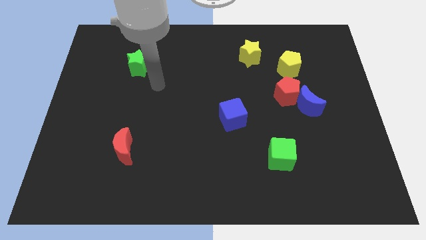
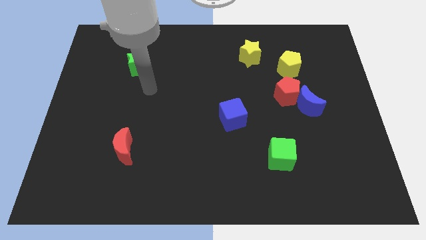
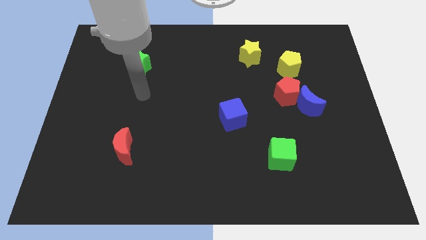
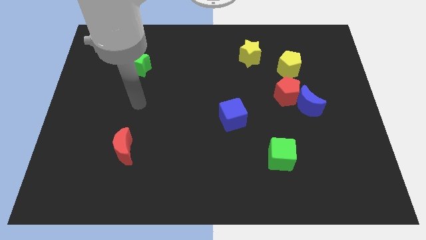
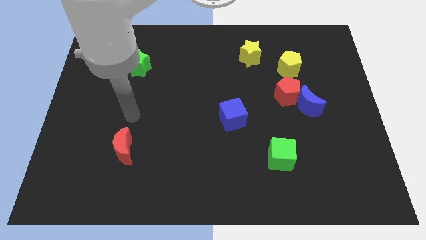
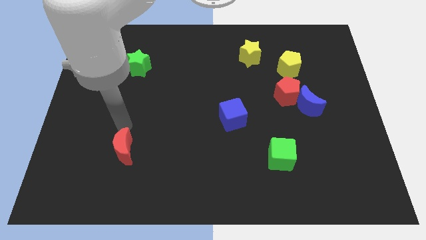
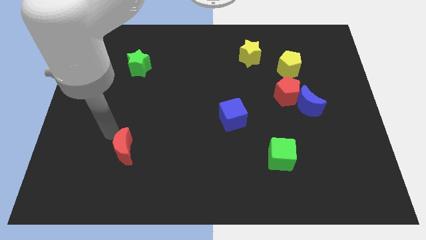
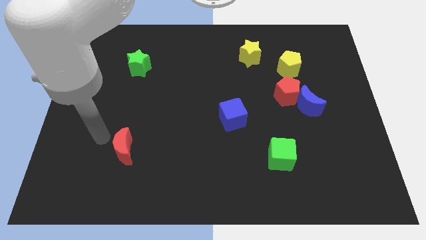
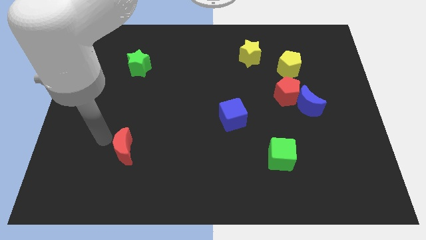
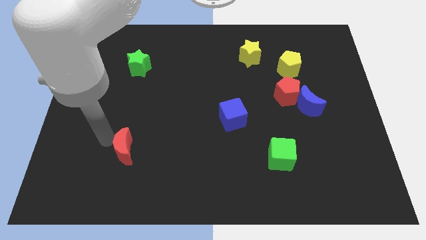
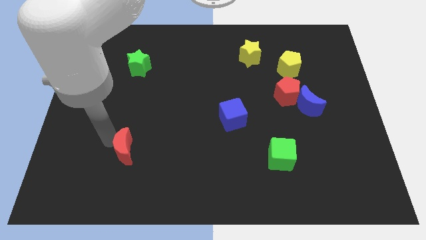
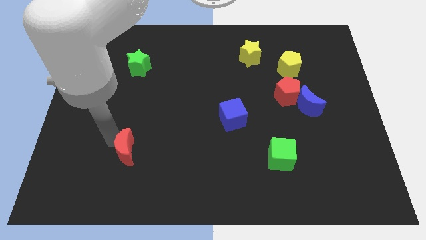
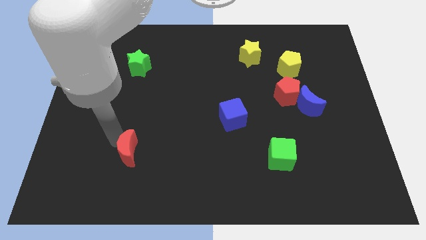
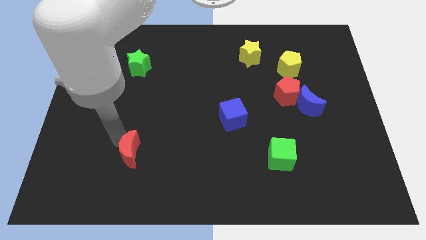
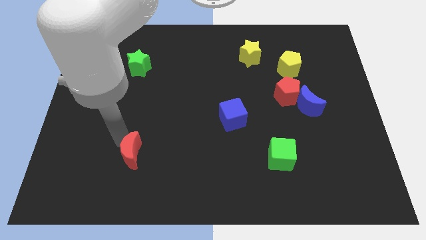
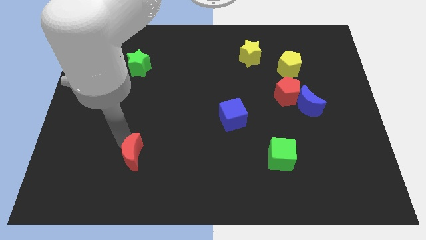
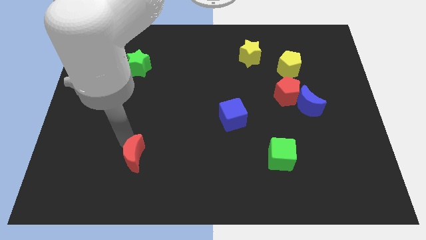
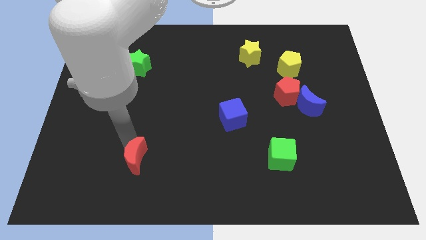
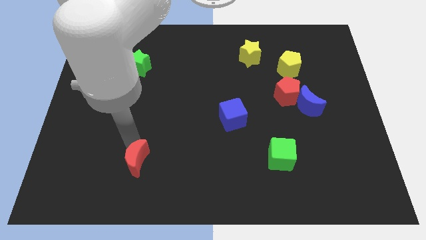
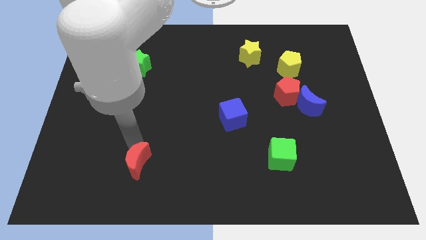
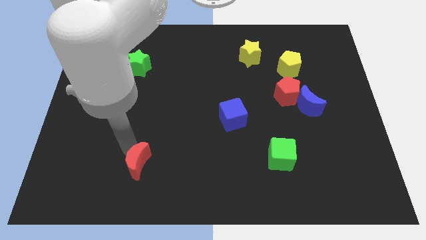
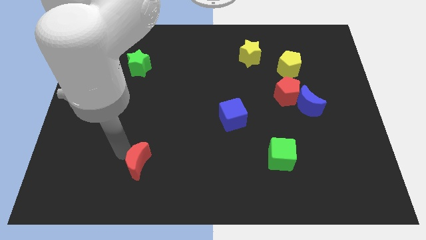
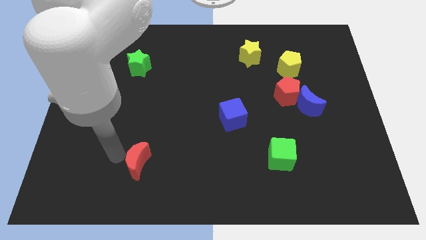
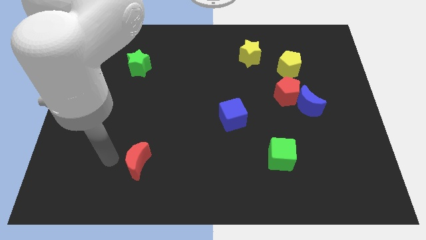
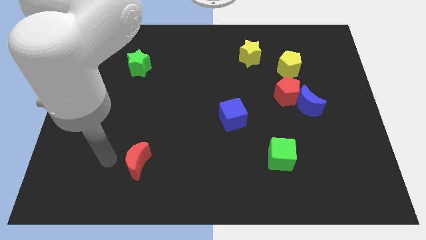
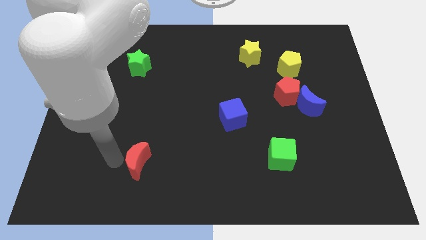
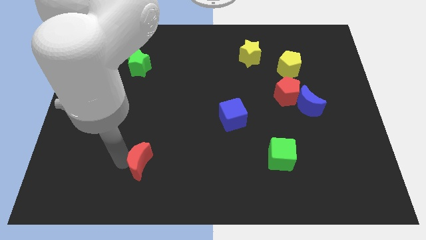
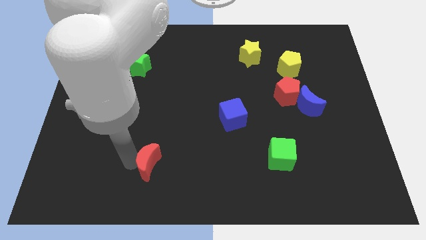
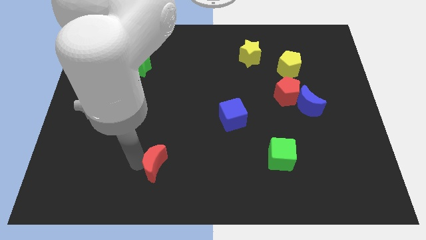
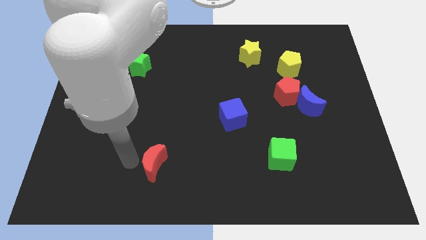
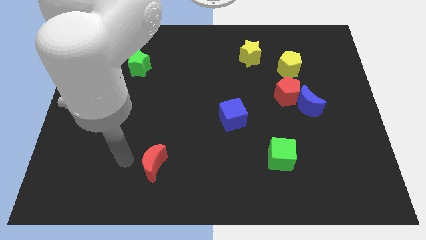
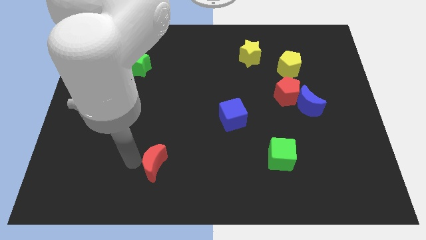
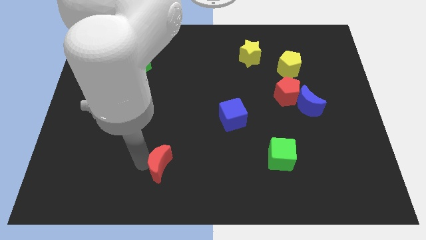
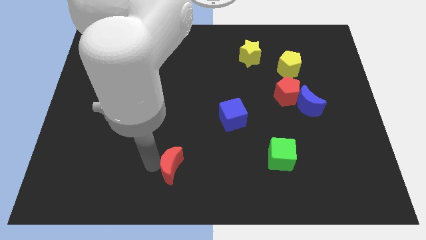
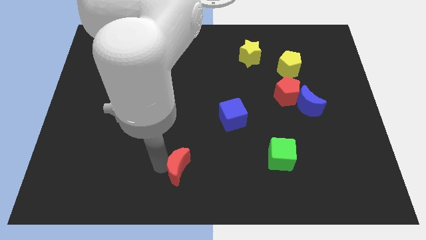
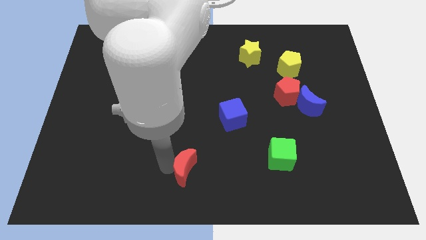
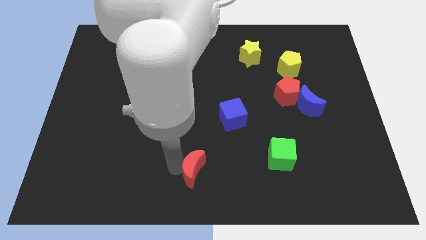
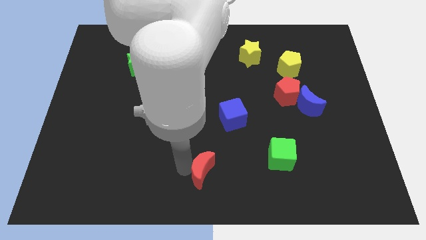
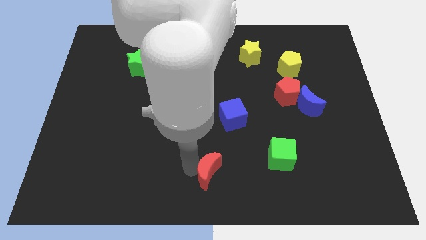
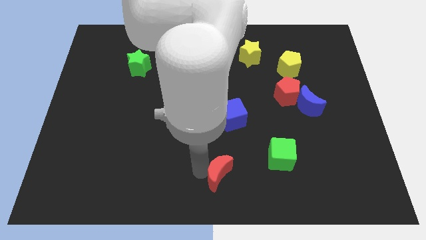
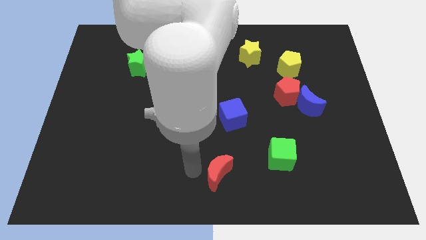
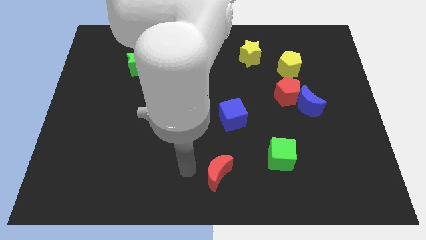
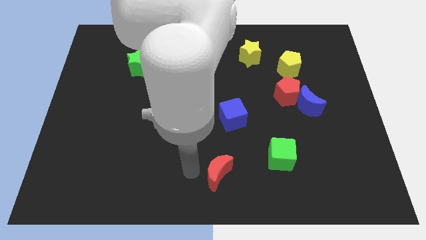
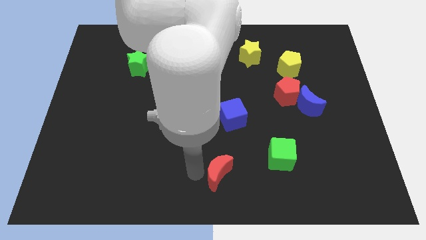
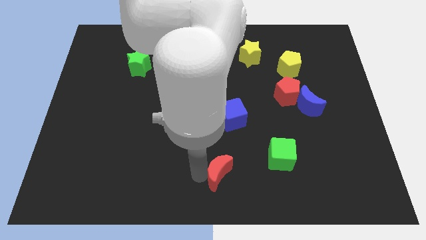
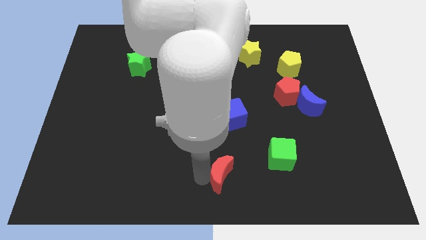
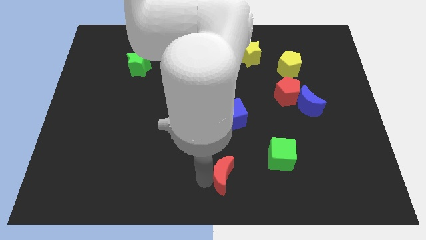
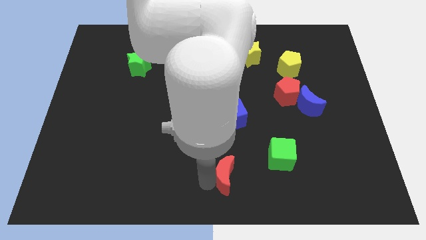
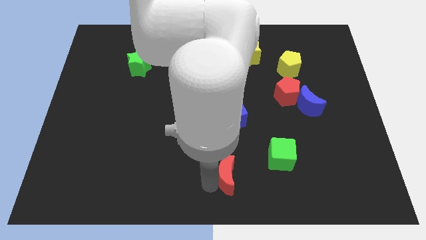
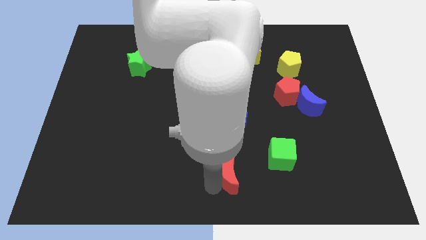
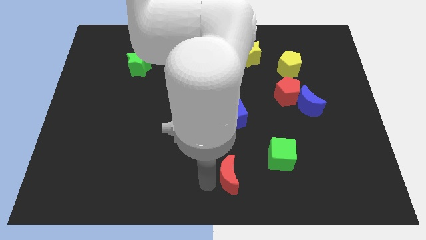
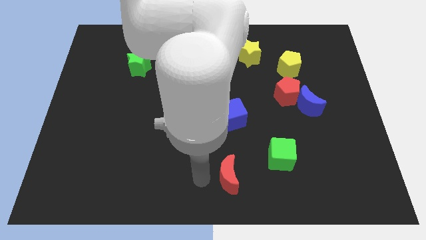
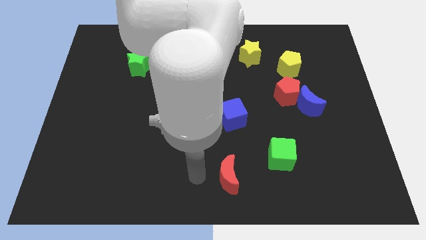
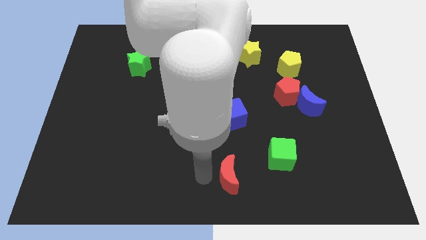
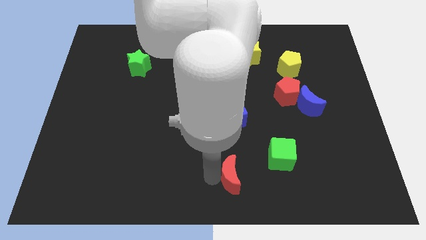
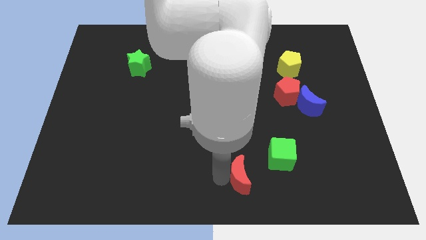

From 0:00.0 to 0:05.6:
put the red moon to the bottom left of the green cube

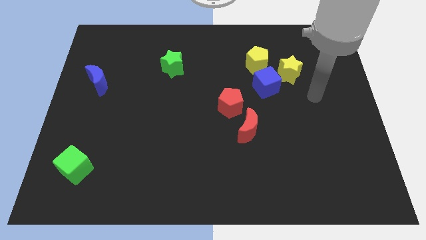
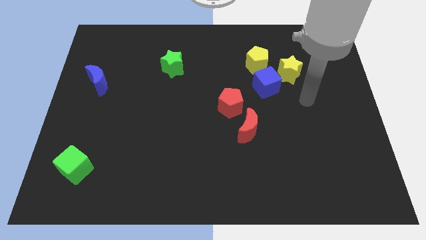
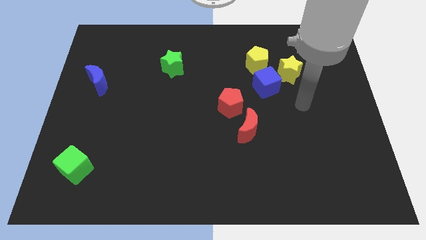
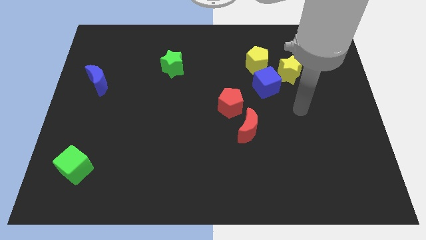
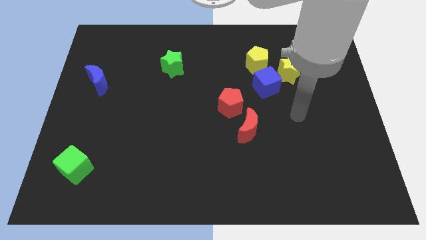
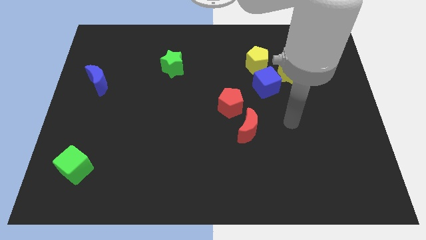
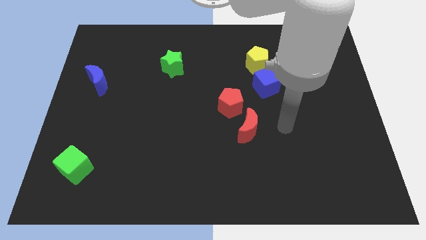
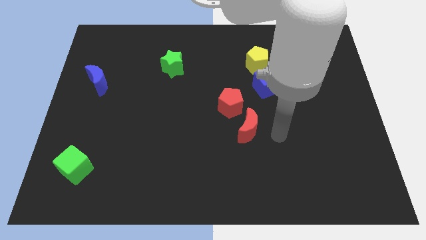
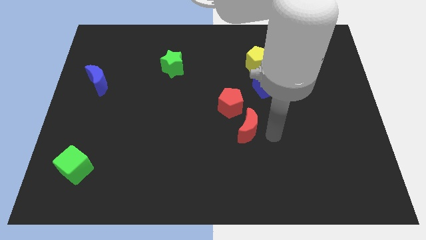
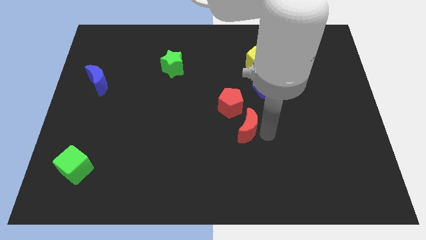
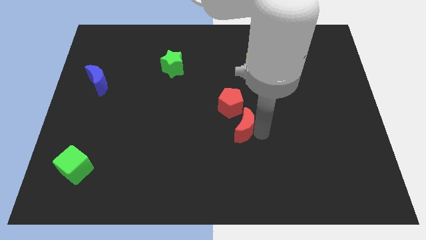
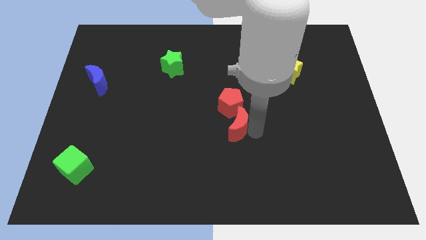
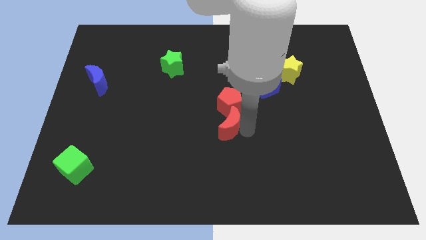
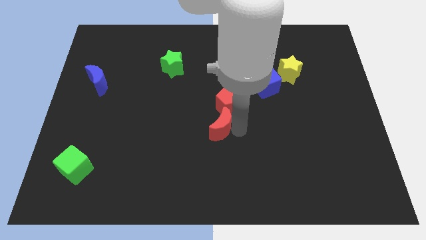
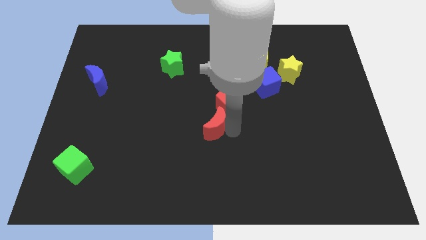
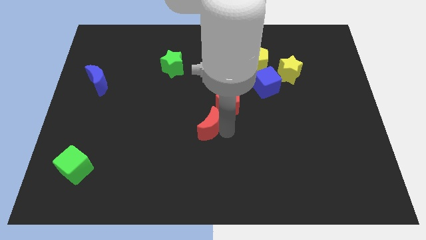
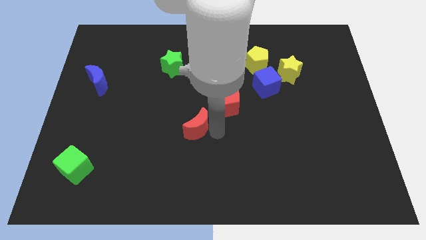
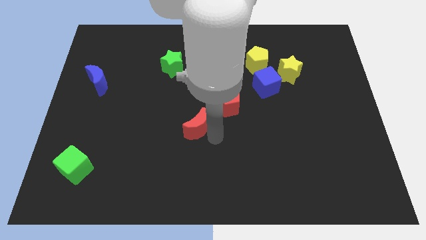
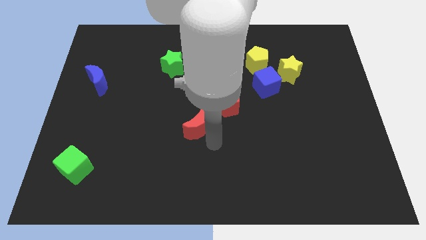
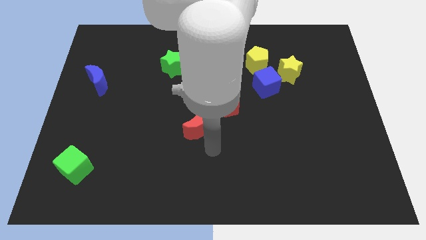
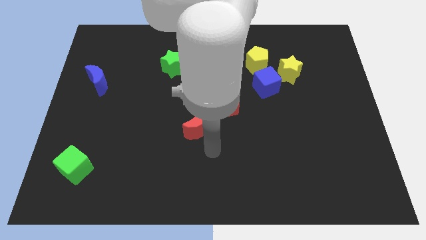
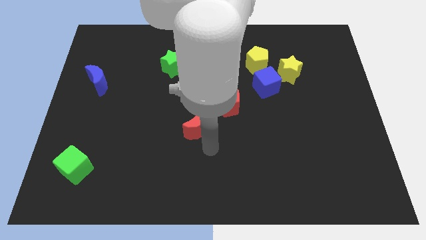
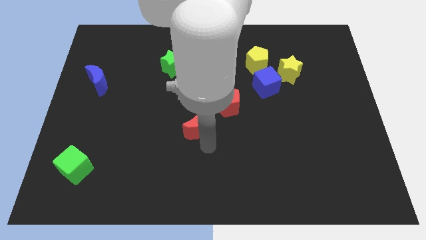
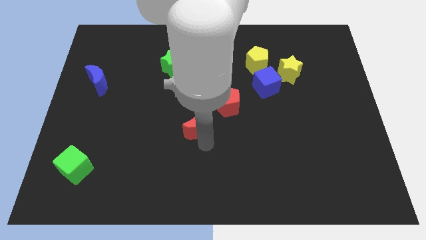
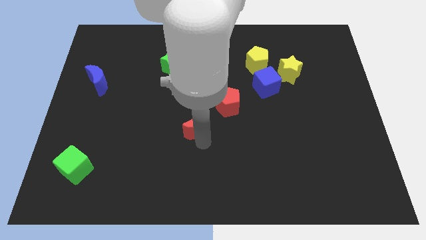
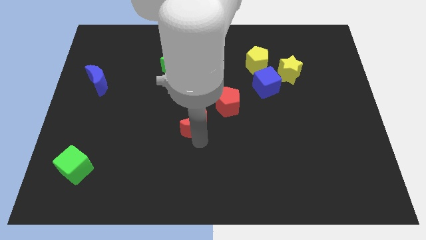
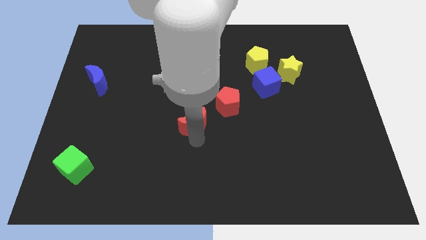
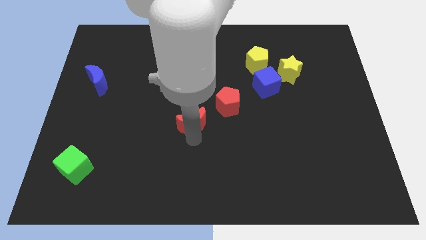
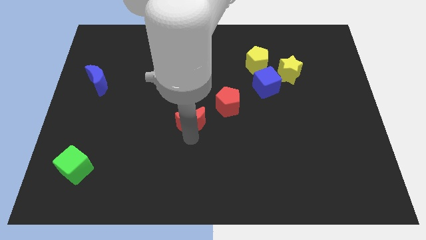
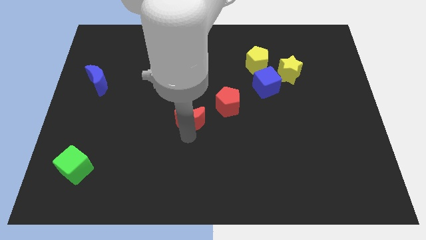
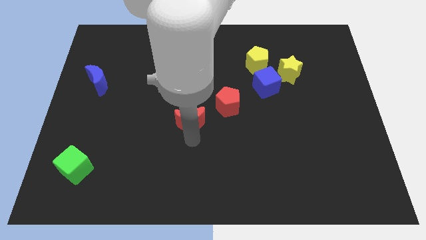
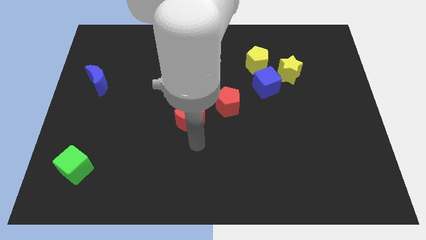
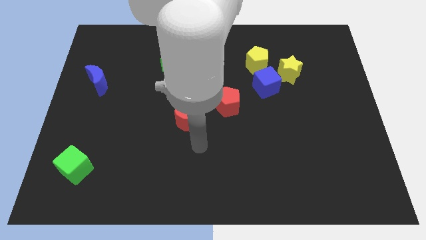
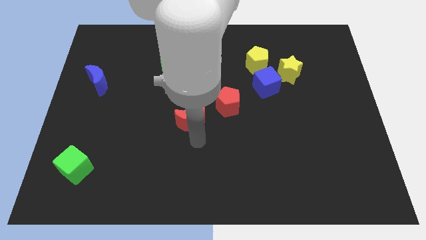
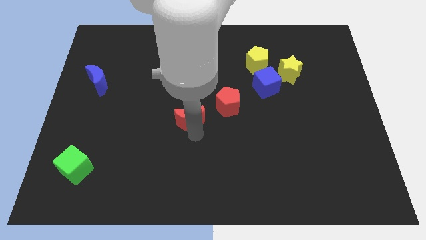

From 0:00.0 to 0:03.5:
put the red moon to the left side of the red pentagon
